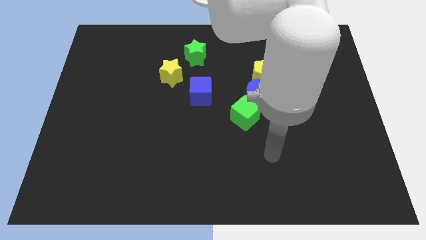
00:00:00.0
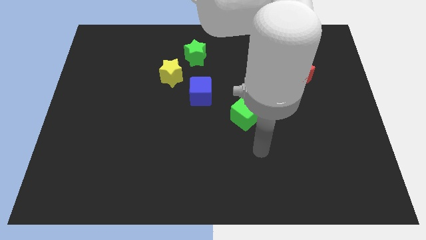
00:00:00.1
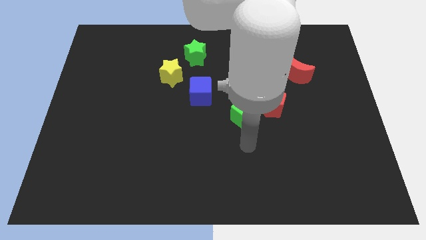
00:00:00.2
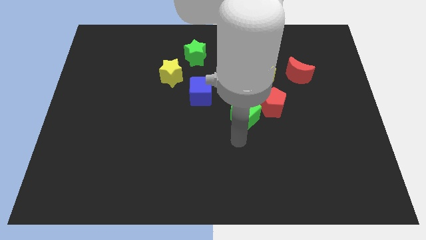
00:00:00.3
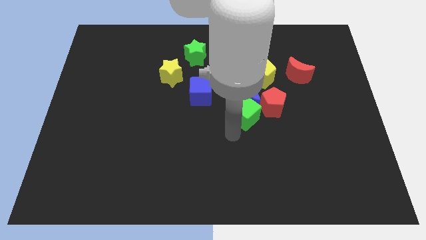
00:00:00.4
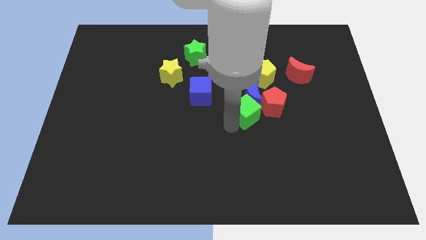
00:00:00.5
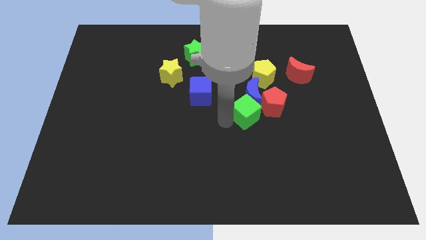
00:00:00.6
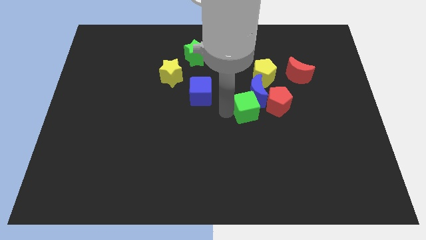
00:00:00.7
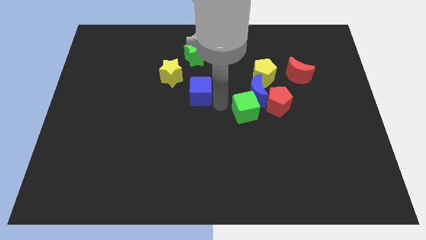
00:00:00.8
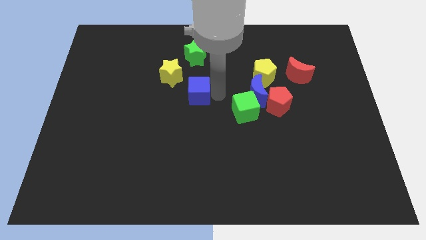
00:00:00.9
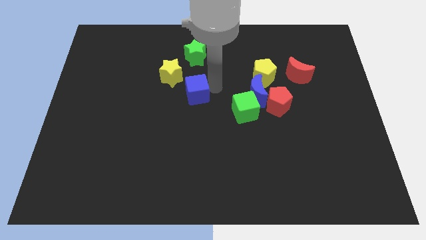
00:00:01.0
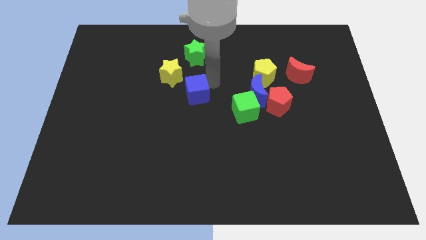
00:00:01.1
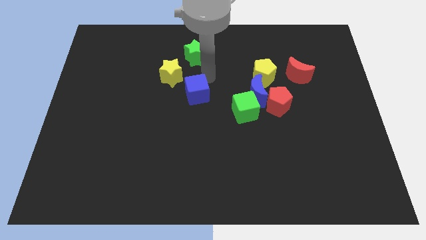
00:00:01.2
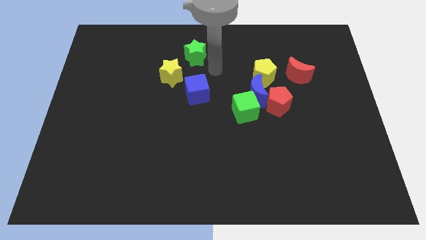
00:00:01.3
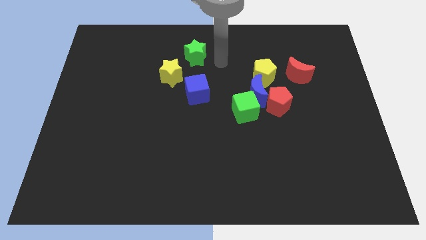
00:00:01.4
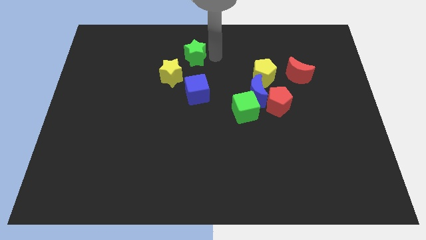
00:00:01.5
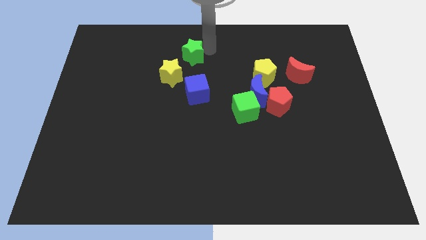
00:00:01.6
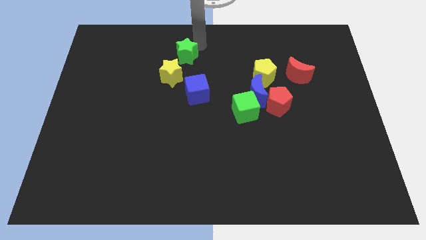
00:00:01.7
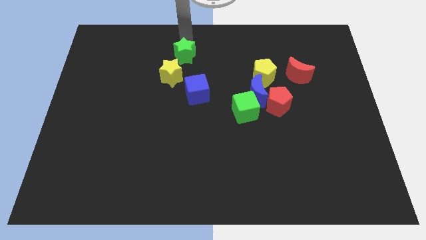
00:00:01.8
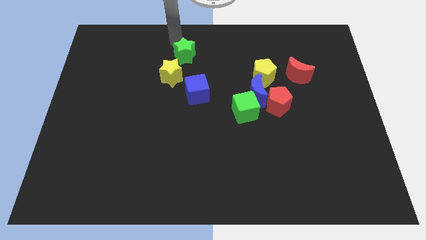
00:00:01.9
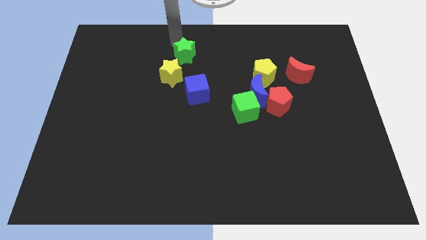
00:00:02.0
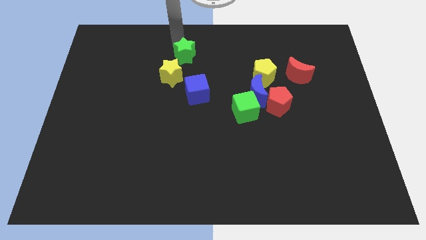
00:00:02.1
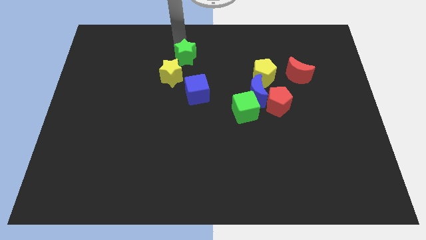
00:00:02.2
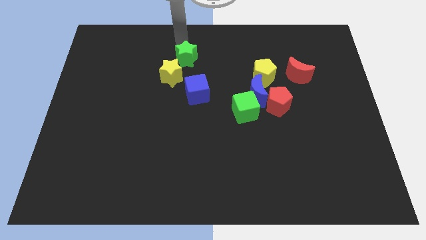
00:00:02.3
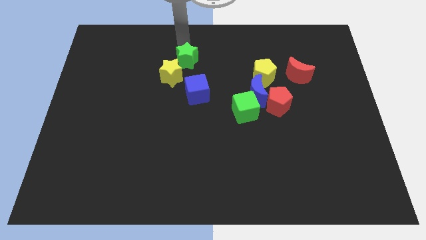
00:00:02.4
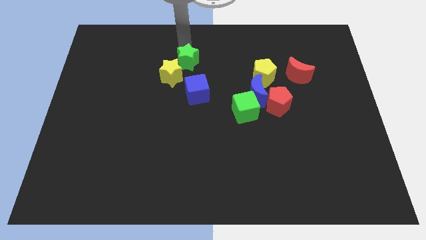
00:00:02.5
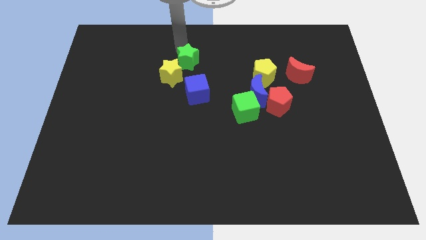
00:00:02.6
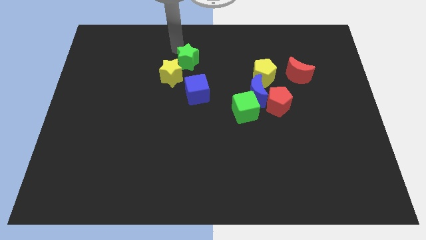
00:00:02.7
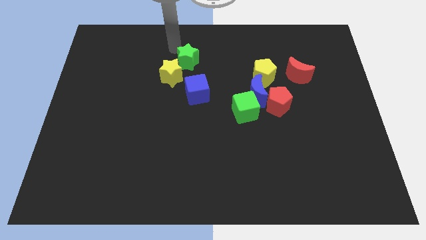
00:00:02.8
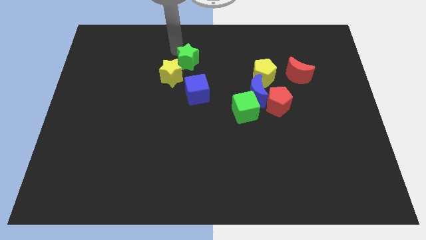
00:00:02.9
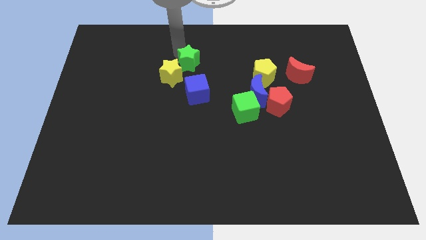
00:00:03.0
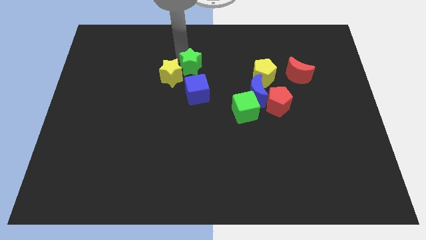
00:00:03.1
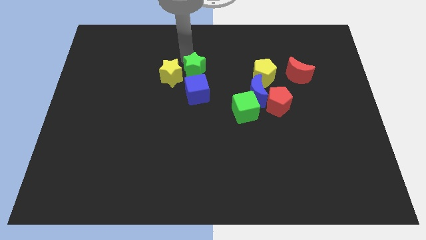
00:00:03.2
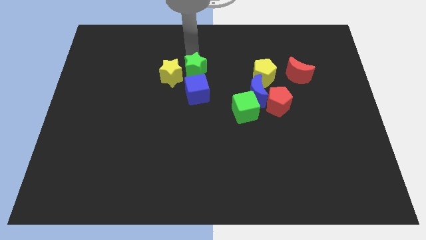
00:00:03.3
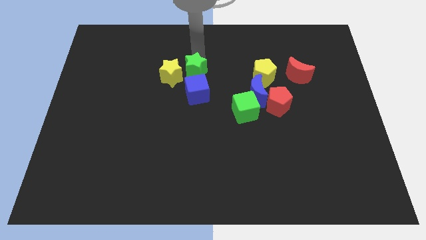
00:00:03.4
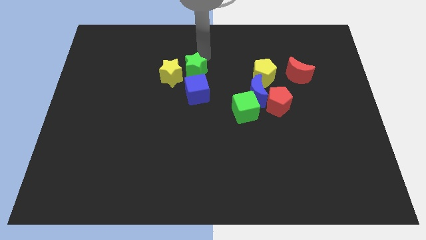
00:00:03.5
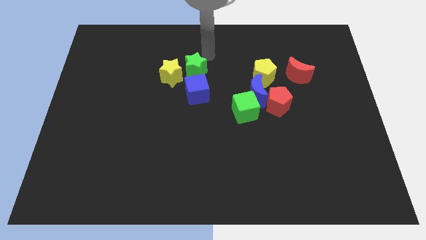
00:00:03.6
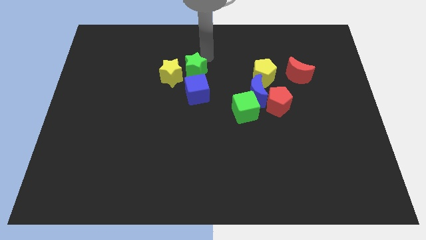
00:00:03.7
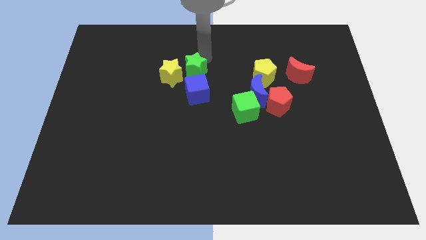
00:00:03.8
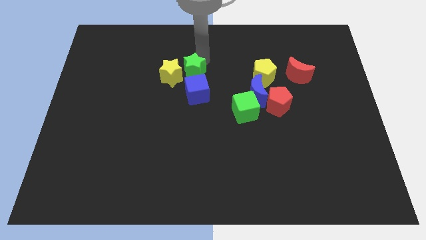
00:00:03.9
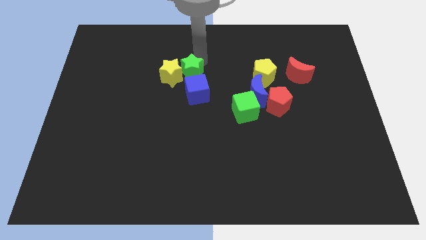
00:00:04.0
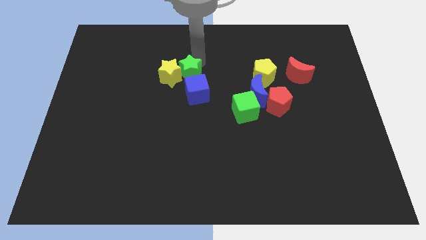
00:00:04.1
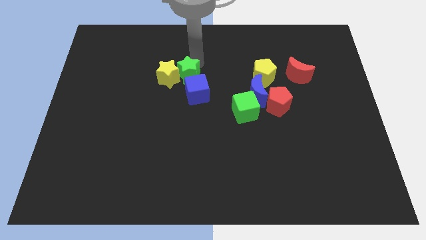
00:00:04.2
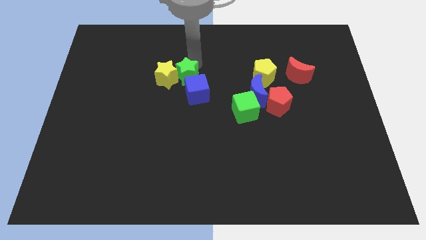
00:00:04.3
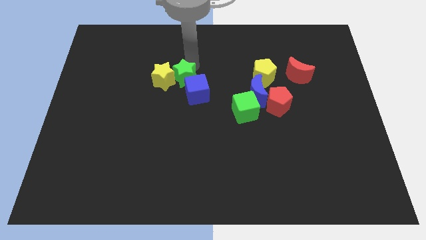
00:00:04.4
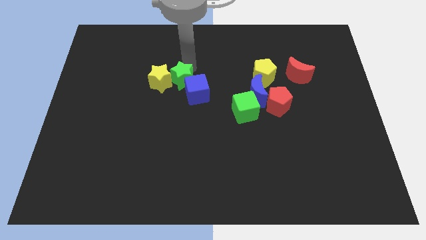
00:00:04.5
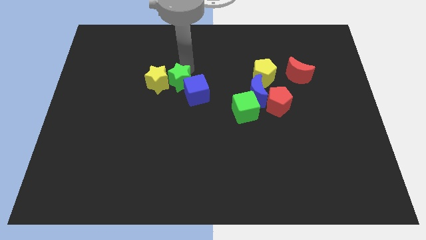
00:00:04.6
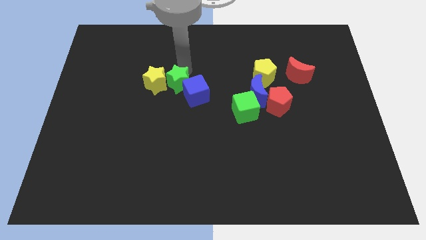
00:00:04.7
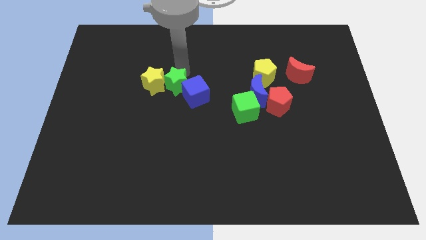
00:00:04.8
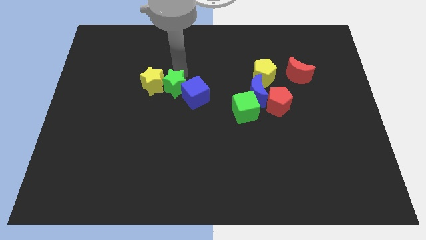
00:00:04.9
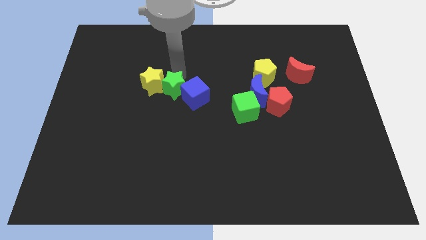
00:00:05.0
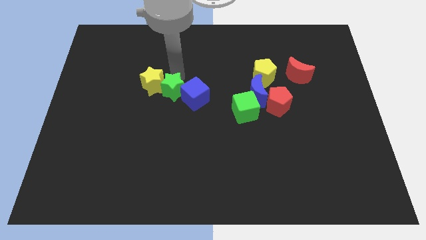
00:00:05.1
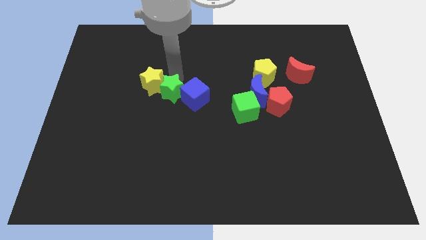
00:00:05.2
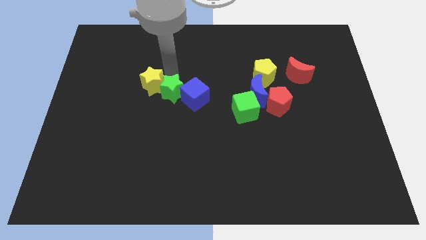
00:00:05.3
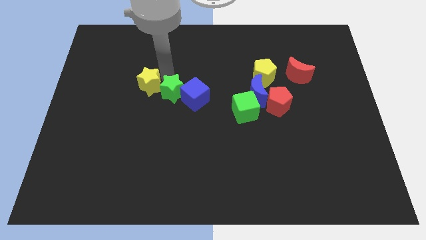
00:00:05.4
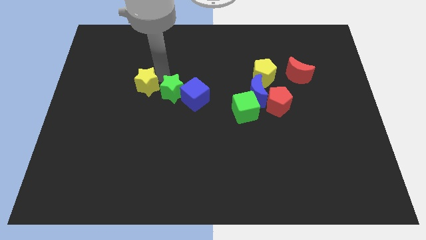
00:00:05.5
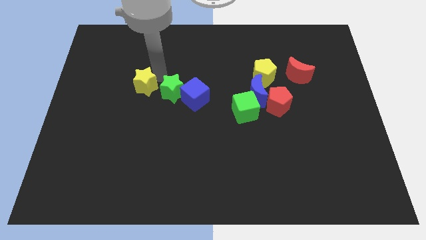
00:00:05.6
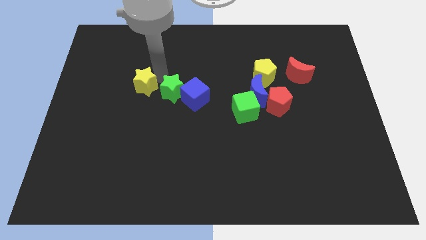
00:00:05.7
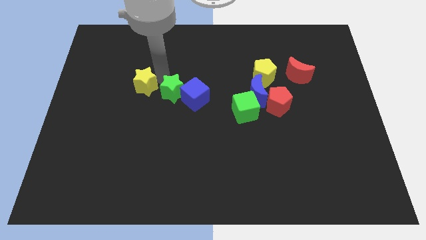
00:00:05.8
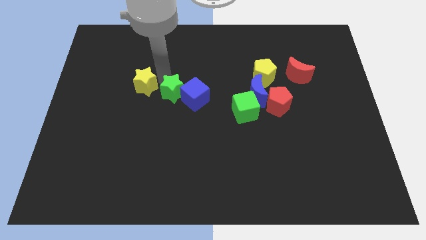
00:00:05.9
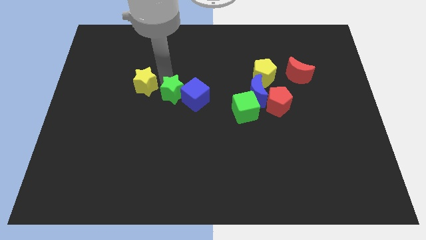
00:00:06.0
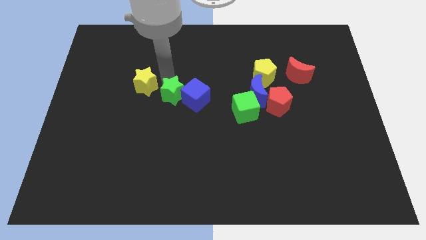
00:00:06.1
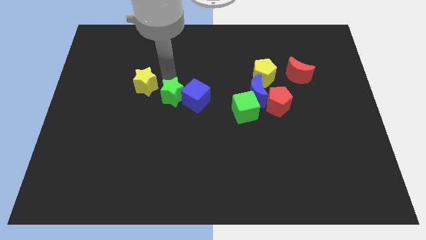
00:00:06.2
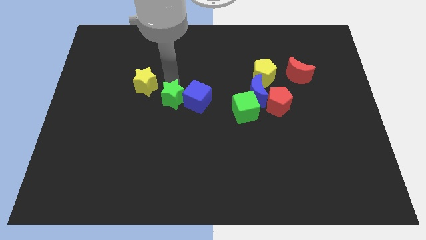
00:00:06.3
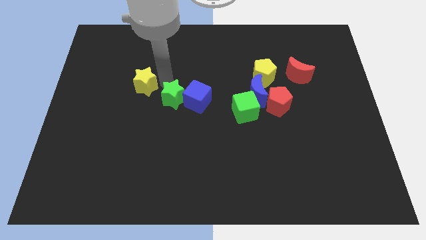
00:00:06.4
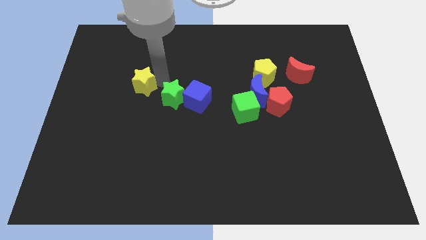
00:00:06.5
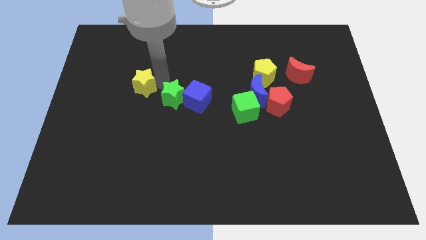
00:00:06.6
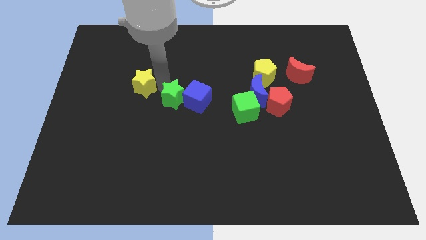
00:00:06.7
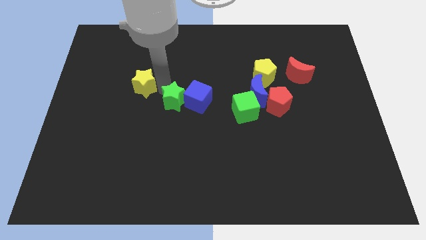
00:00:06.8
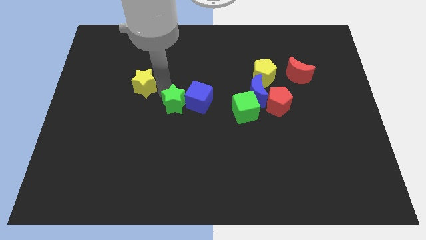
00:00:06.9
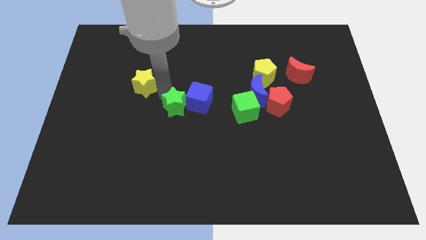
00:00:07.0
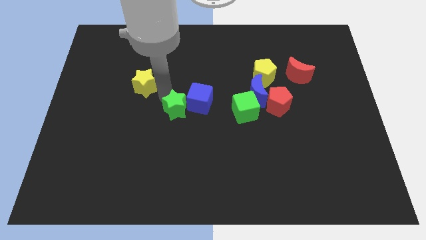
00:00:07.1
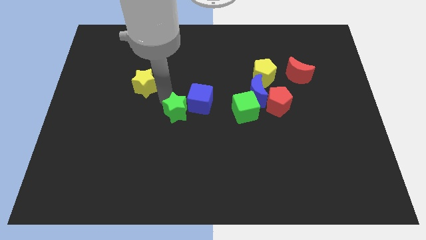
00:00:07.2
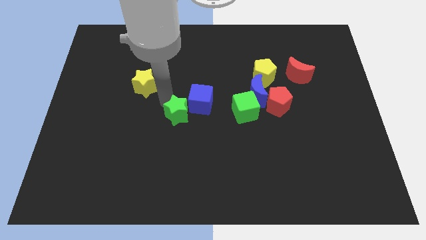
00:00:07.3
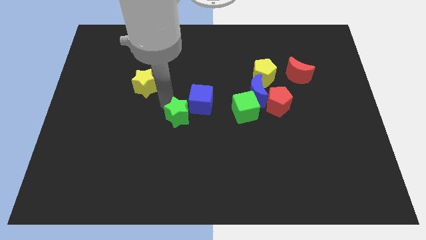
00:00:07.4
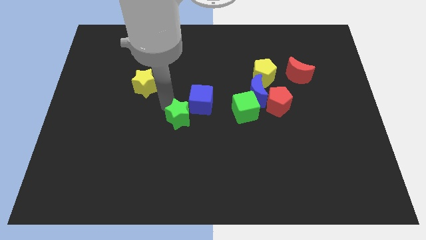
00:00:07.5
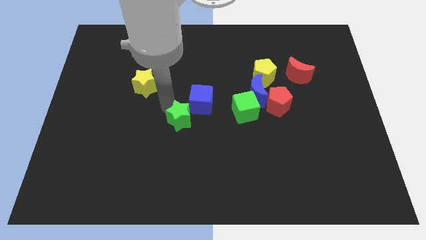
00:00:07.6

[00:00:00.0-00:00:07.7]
push the green star down

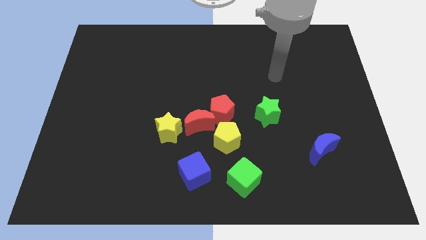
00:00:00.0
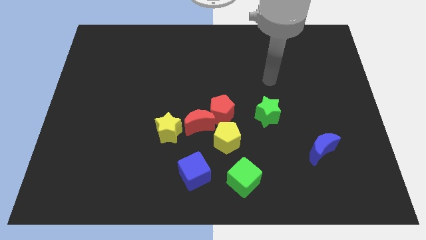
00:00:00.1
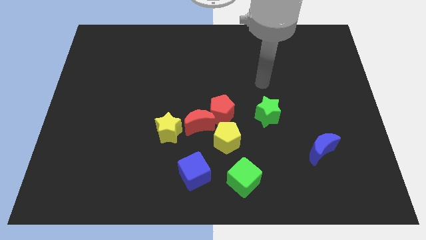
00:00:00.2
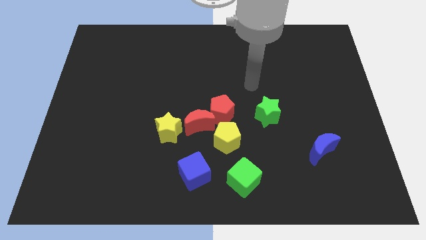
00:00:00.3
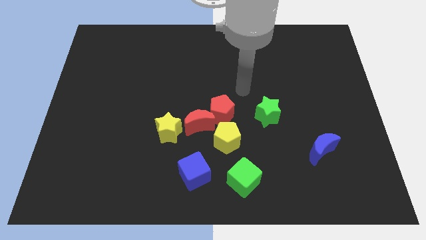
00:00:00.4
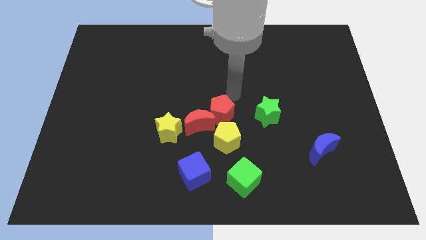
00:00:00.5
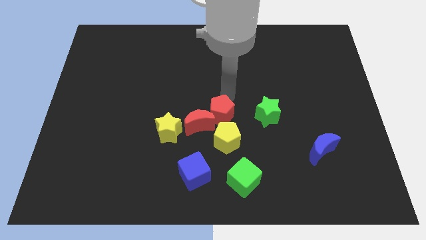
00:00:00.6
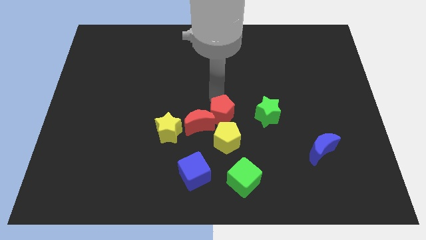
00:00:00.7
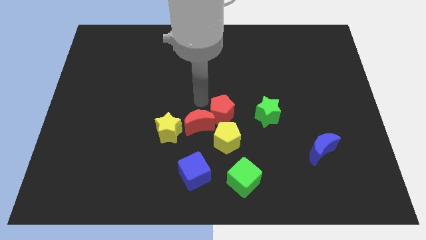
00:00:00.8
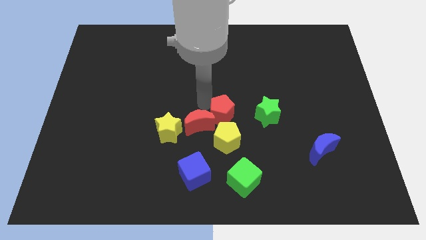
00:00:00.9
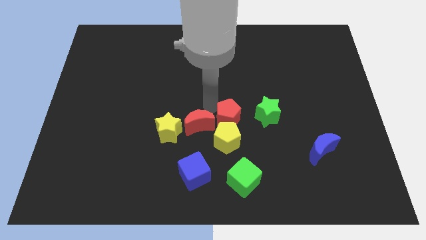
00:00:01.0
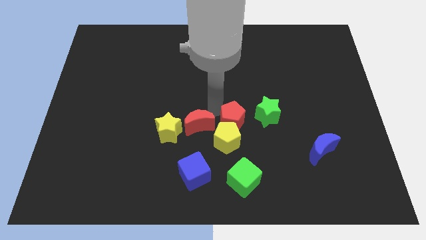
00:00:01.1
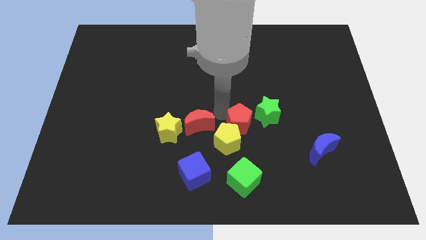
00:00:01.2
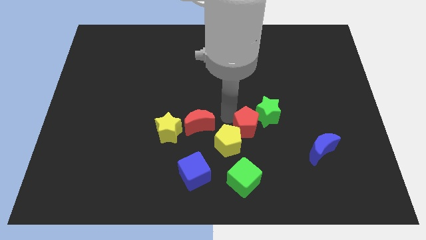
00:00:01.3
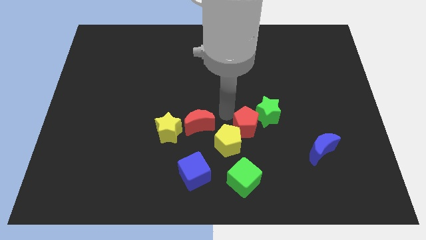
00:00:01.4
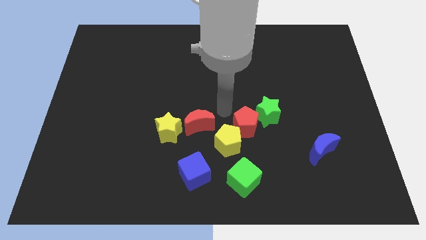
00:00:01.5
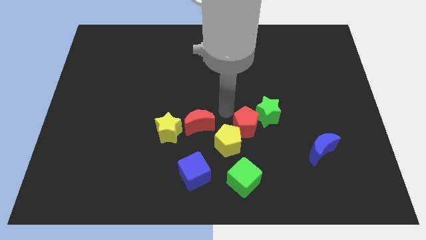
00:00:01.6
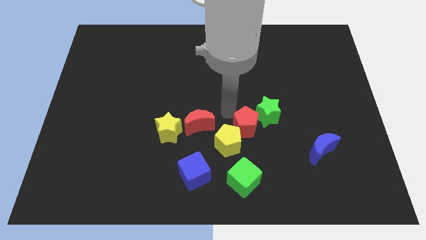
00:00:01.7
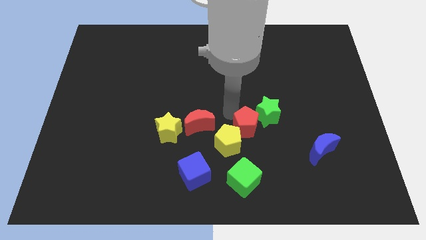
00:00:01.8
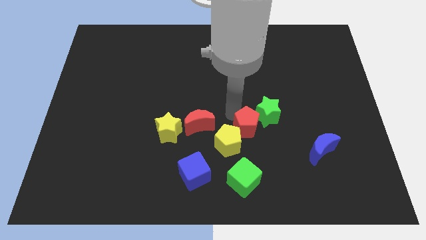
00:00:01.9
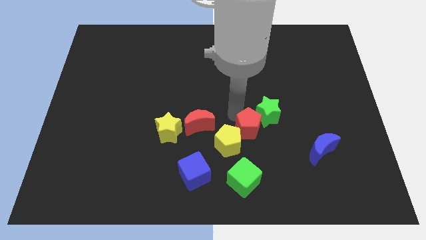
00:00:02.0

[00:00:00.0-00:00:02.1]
slide the red pentagon downwards and right diagonally slightly
